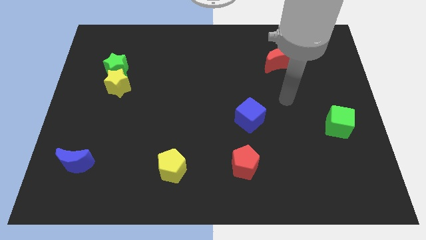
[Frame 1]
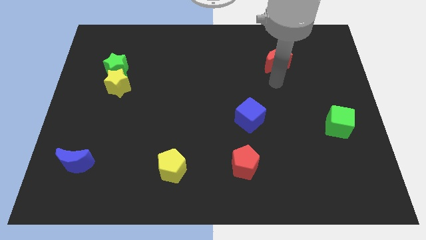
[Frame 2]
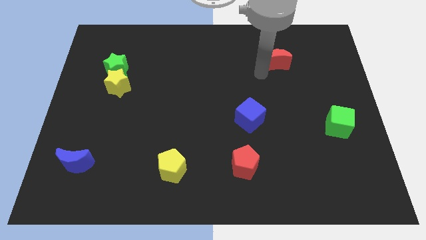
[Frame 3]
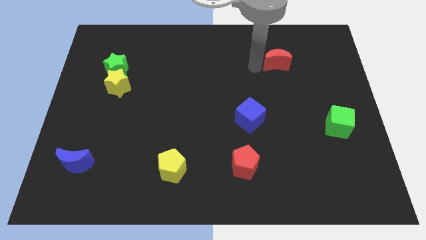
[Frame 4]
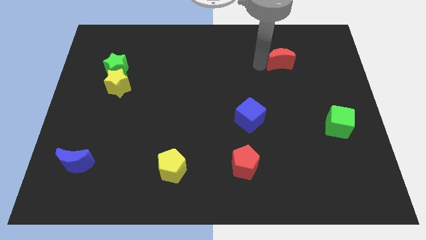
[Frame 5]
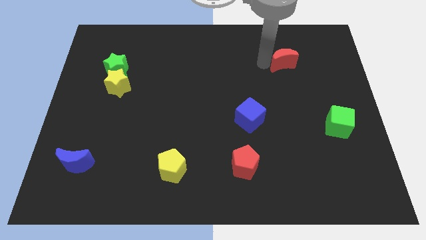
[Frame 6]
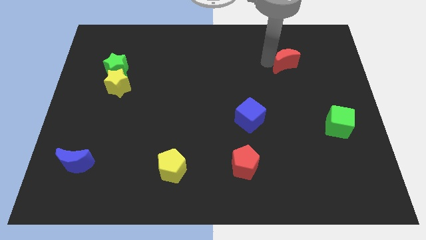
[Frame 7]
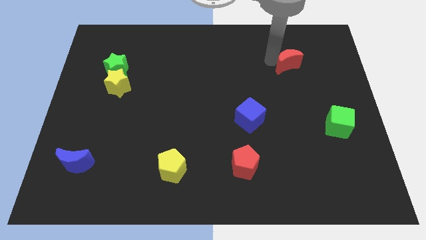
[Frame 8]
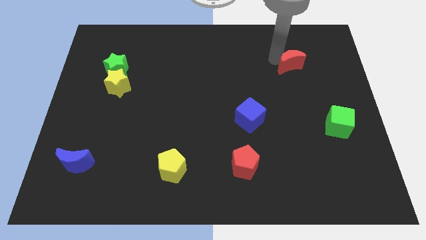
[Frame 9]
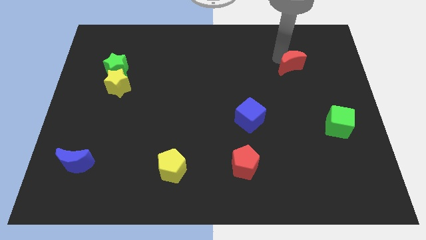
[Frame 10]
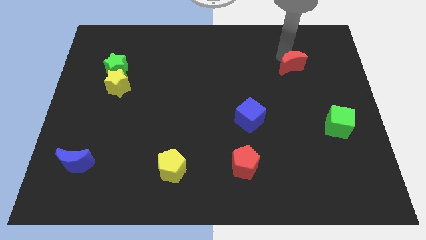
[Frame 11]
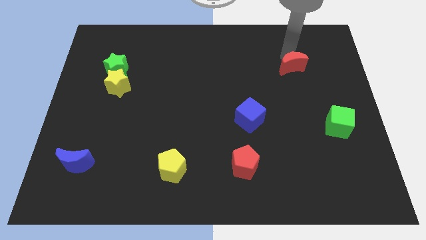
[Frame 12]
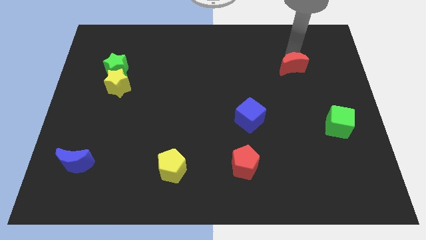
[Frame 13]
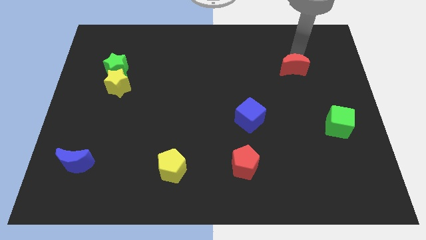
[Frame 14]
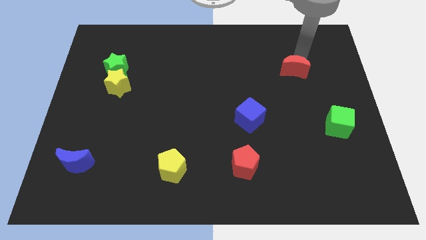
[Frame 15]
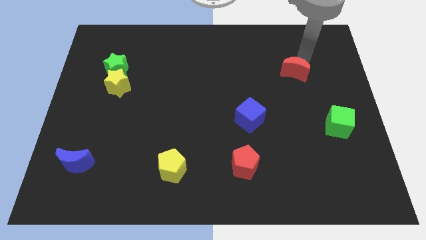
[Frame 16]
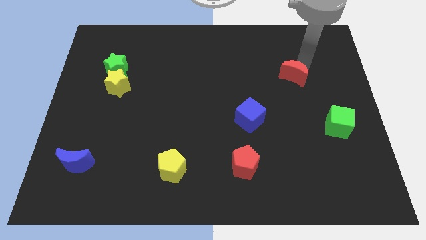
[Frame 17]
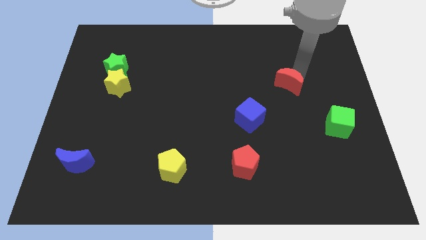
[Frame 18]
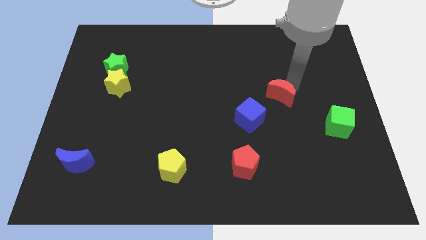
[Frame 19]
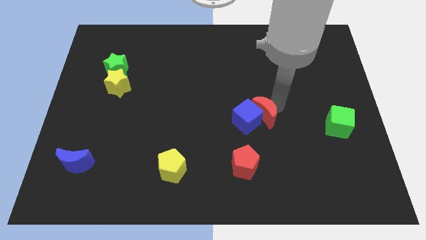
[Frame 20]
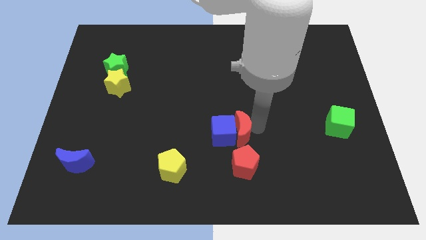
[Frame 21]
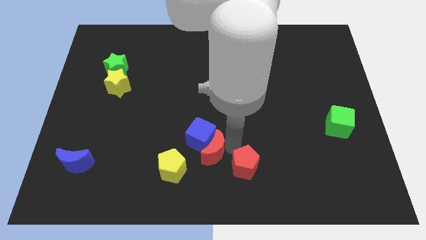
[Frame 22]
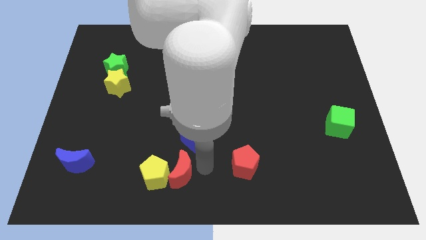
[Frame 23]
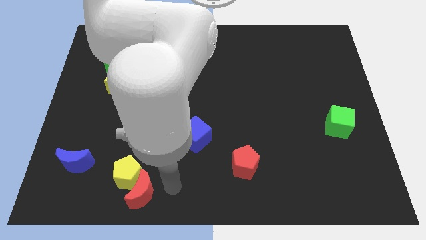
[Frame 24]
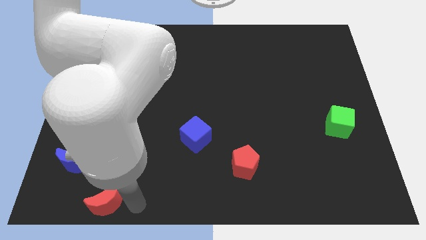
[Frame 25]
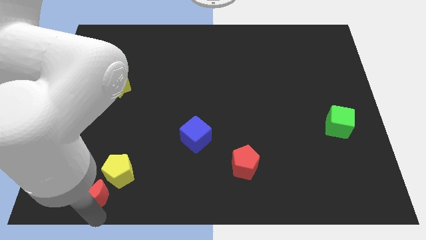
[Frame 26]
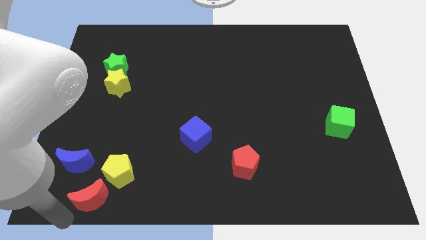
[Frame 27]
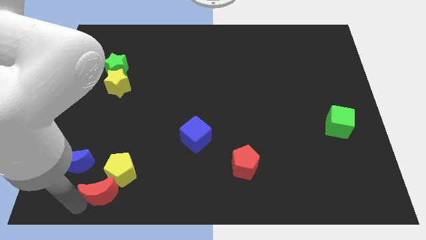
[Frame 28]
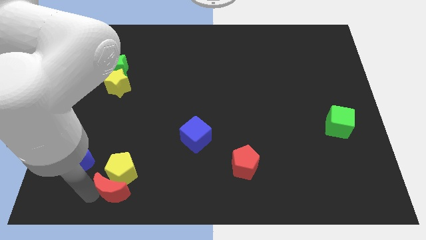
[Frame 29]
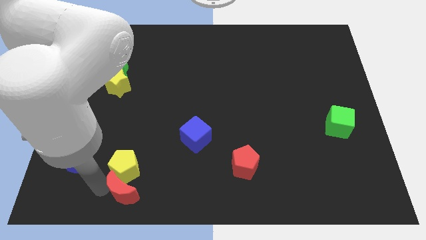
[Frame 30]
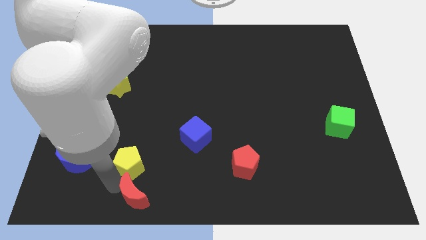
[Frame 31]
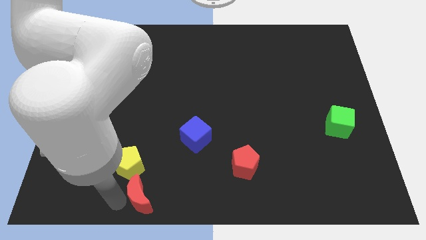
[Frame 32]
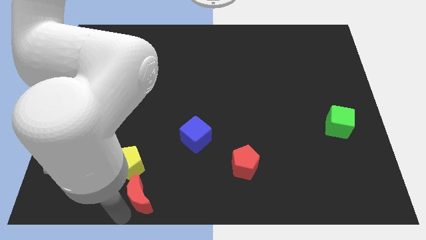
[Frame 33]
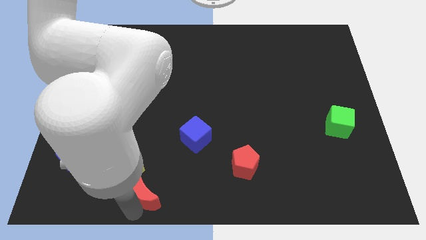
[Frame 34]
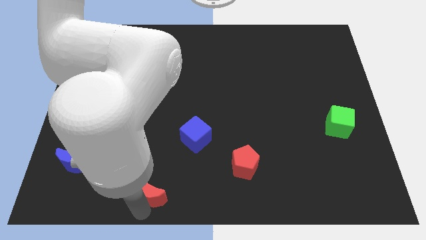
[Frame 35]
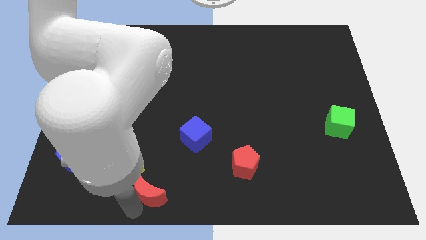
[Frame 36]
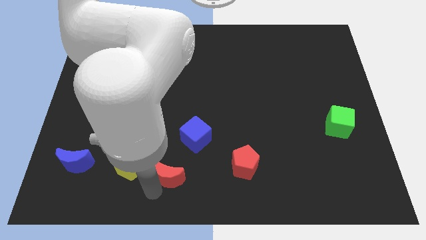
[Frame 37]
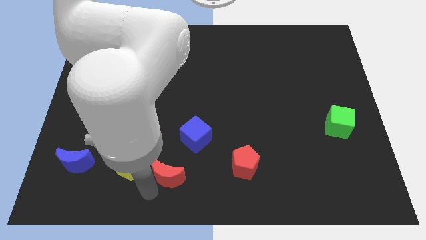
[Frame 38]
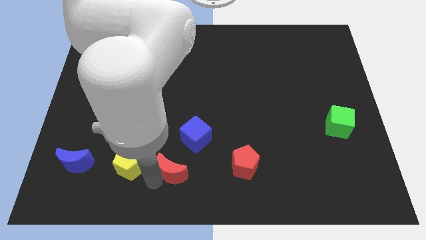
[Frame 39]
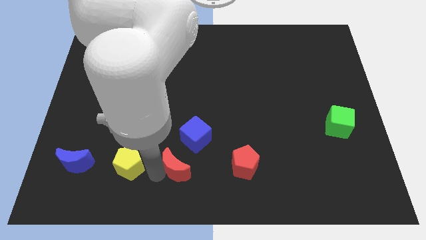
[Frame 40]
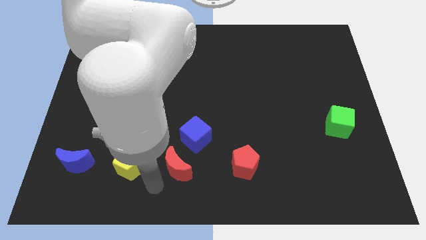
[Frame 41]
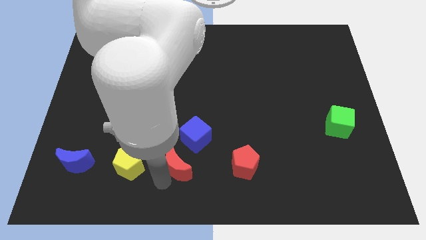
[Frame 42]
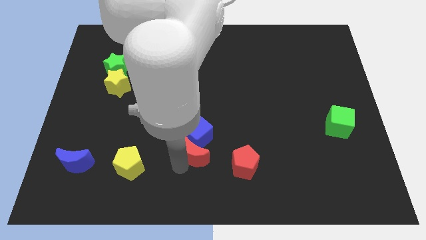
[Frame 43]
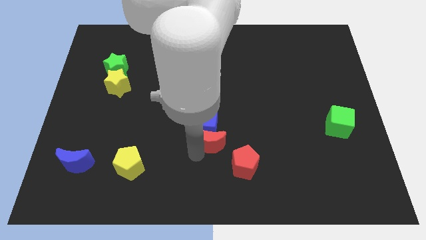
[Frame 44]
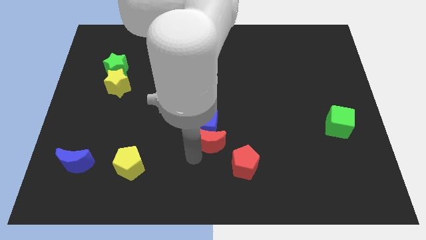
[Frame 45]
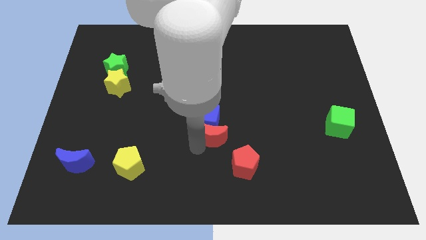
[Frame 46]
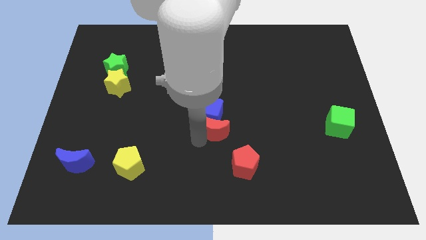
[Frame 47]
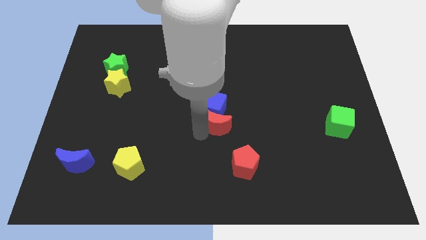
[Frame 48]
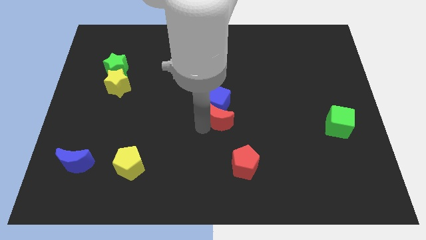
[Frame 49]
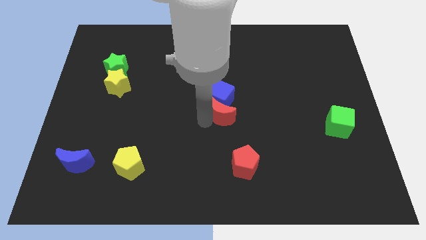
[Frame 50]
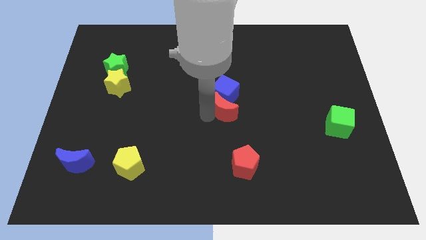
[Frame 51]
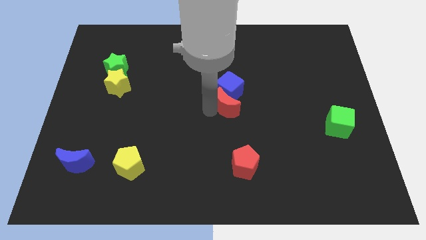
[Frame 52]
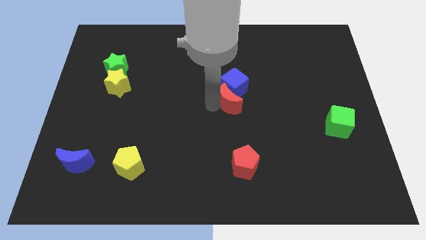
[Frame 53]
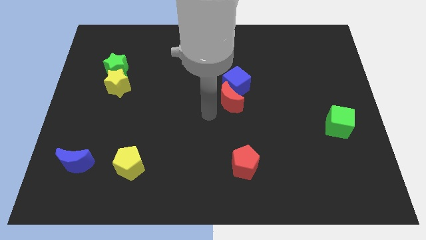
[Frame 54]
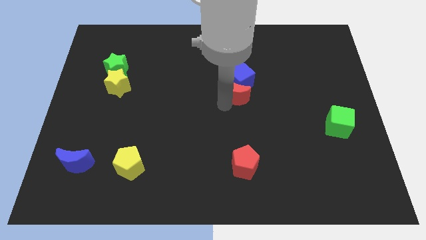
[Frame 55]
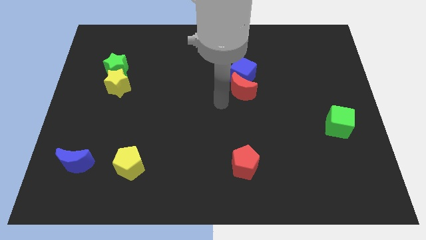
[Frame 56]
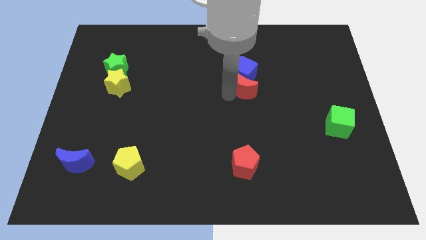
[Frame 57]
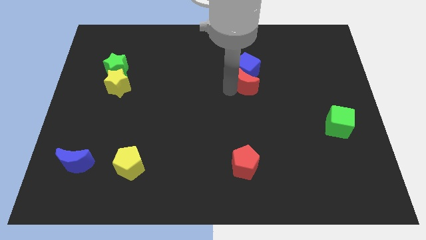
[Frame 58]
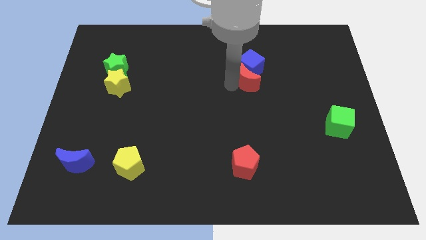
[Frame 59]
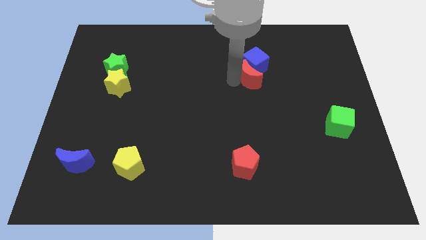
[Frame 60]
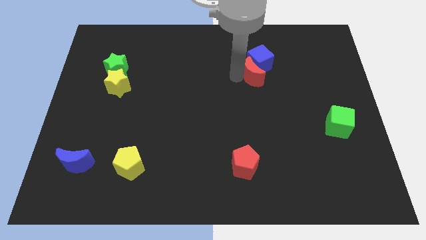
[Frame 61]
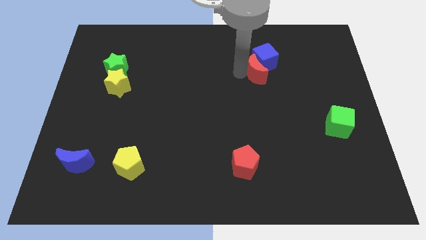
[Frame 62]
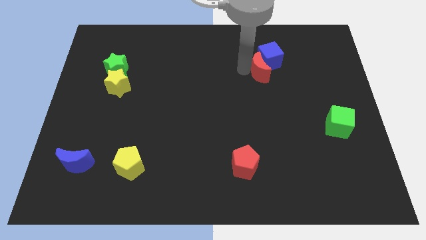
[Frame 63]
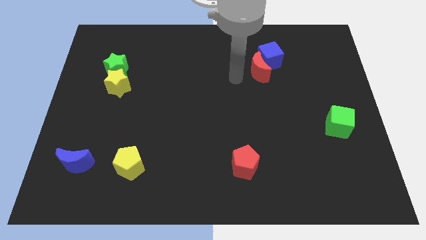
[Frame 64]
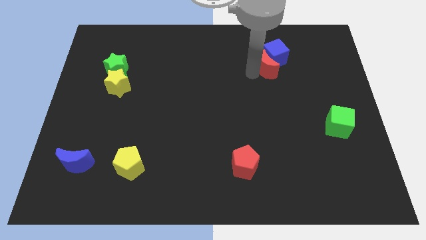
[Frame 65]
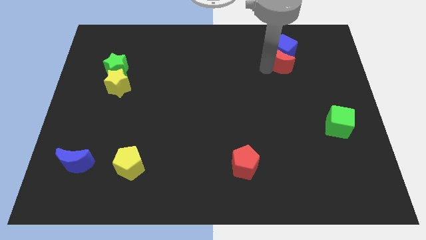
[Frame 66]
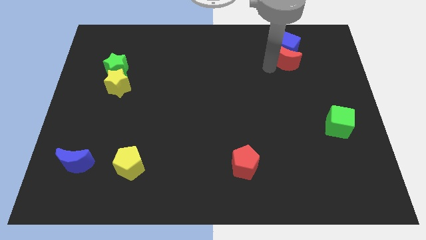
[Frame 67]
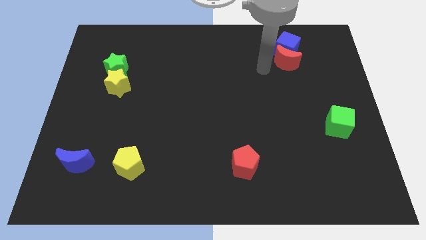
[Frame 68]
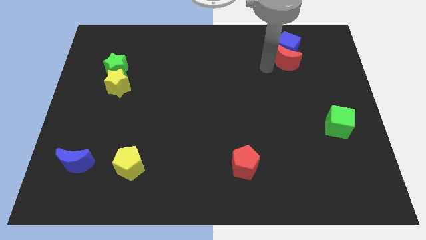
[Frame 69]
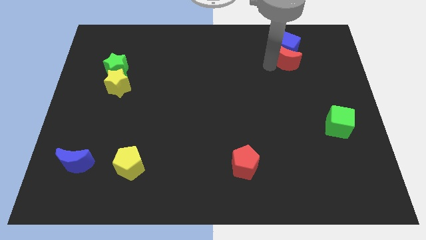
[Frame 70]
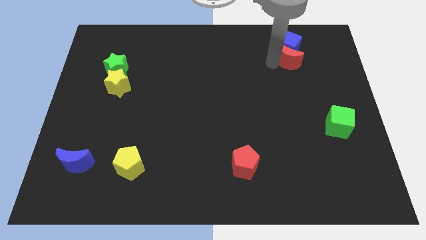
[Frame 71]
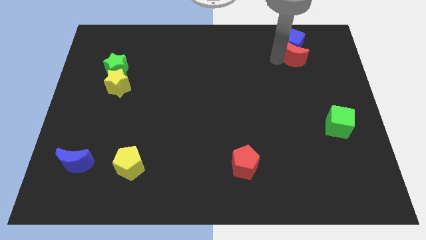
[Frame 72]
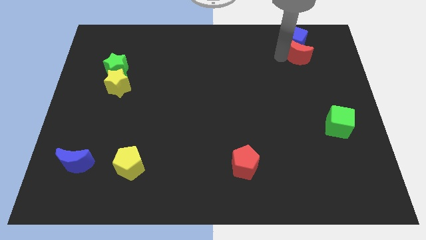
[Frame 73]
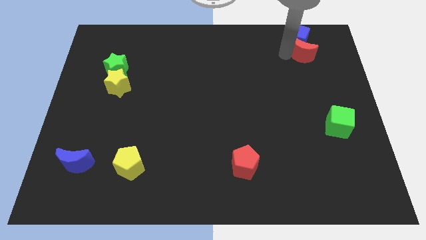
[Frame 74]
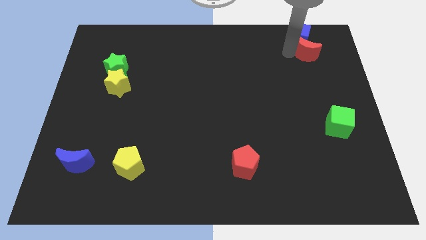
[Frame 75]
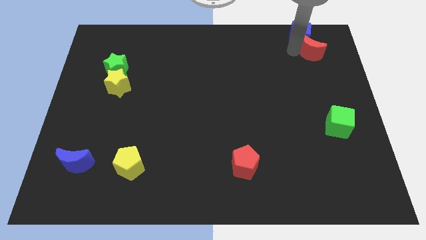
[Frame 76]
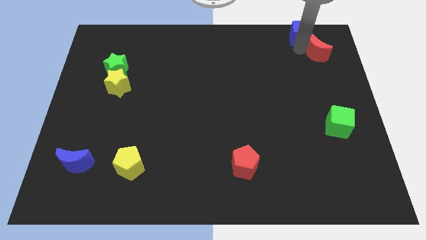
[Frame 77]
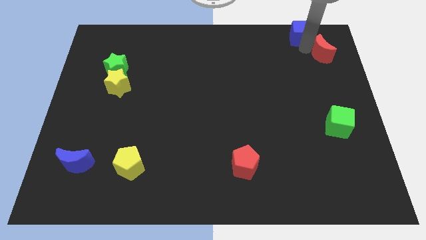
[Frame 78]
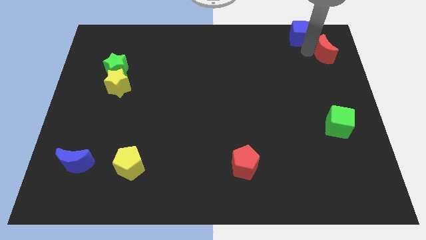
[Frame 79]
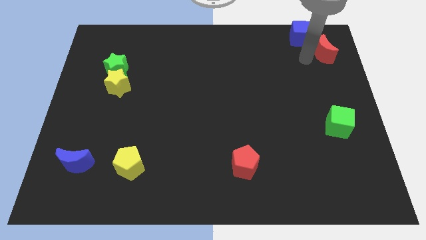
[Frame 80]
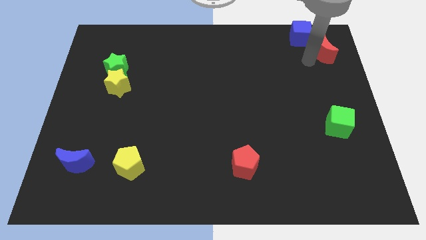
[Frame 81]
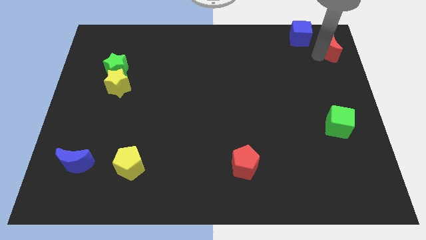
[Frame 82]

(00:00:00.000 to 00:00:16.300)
push the red moon to the top right
